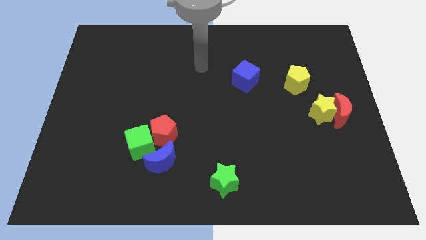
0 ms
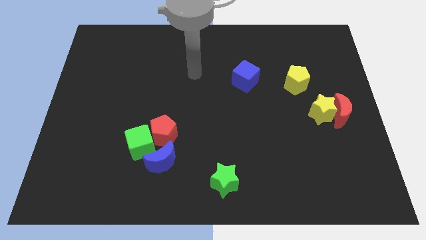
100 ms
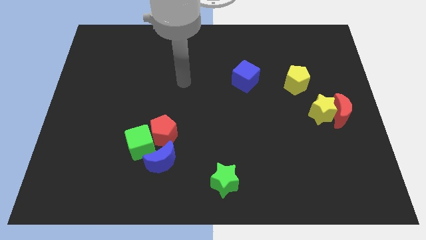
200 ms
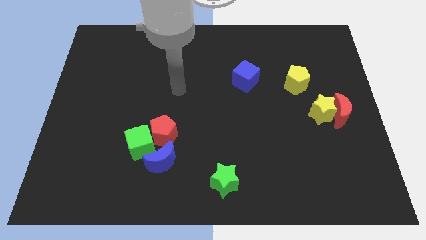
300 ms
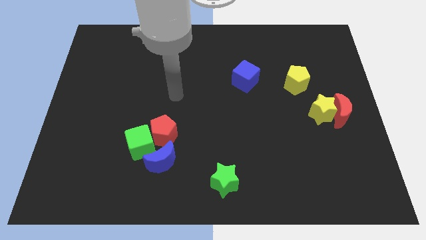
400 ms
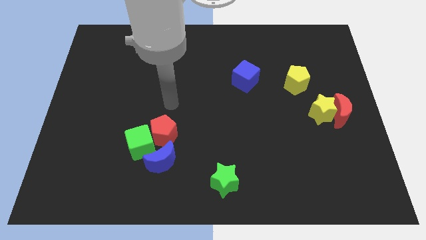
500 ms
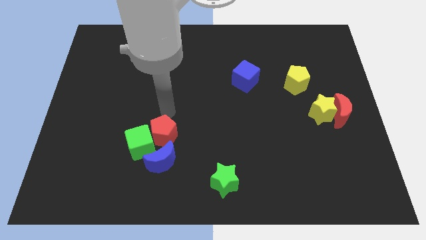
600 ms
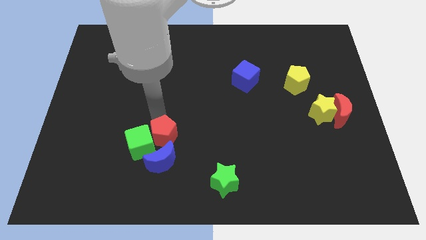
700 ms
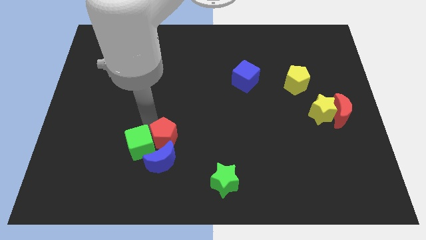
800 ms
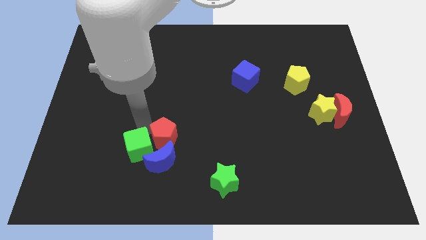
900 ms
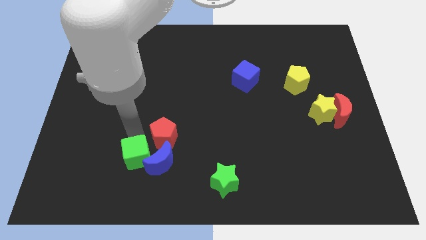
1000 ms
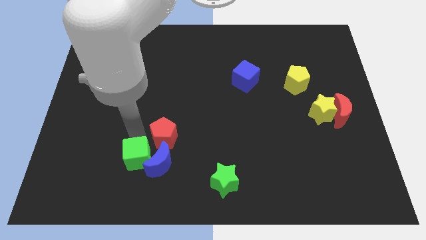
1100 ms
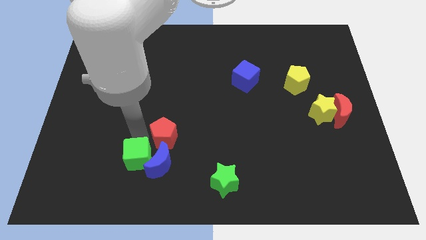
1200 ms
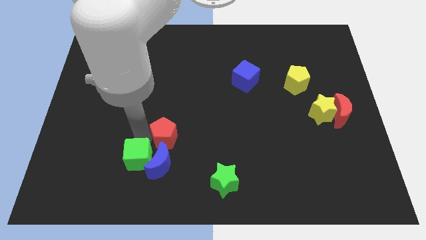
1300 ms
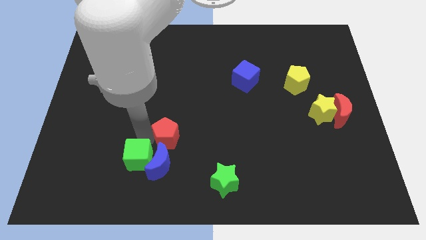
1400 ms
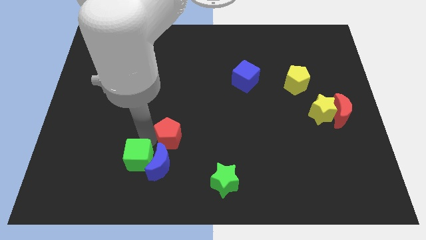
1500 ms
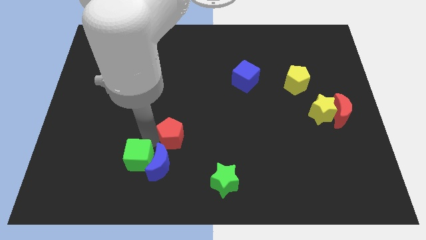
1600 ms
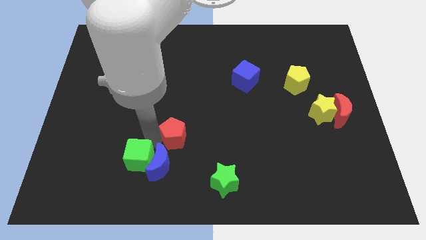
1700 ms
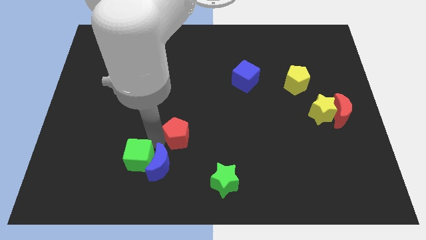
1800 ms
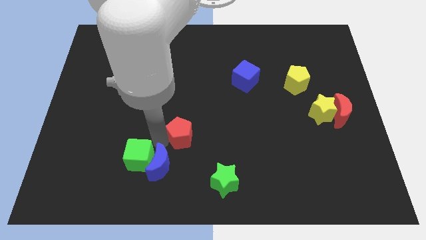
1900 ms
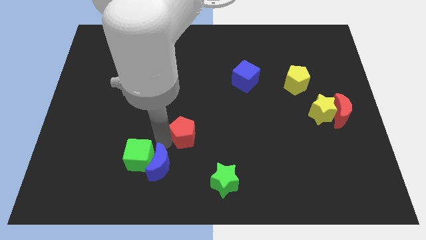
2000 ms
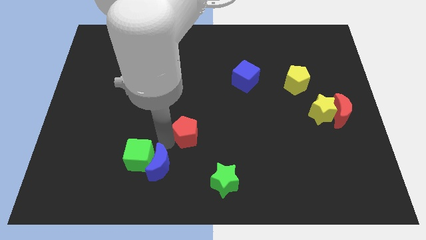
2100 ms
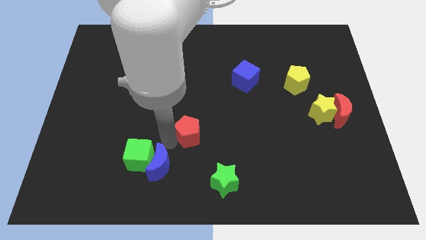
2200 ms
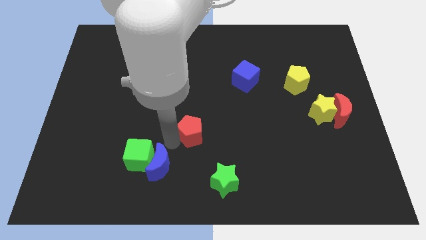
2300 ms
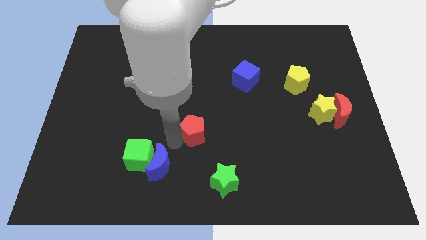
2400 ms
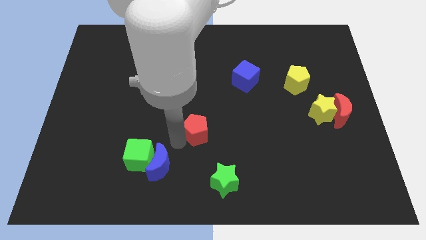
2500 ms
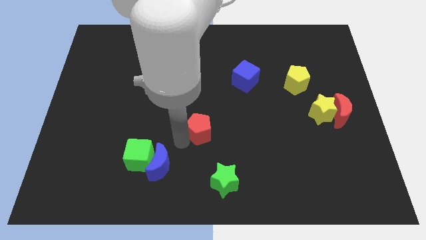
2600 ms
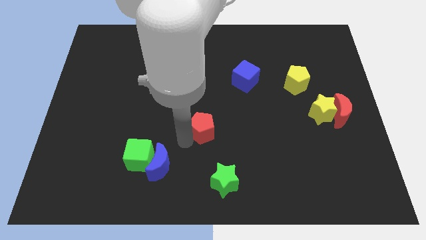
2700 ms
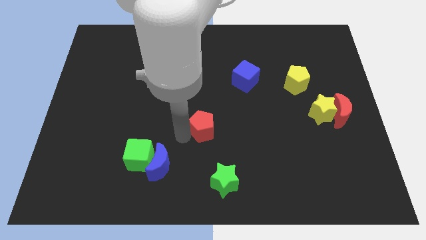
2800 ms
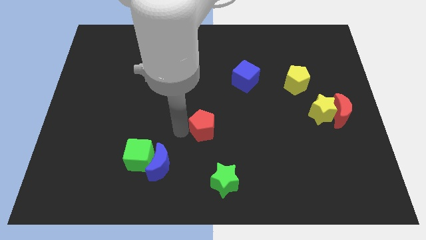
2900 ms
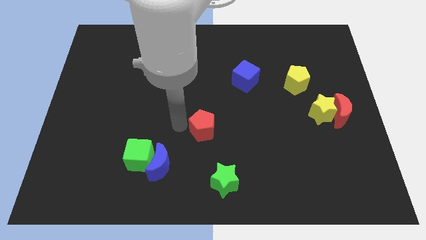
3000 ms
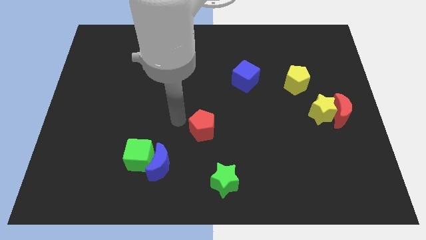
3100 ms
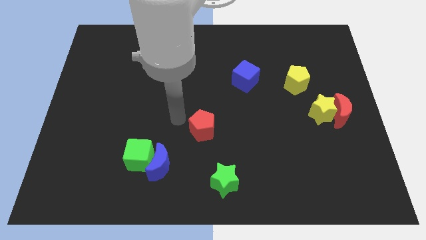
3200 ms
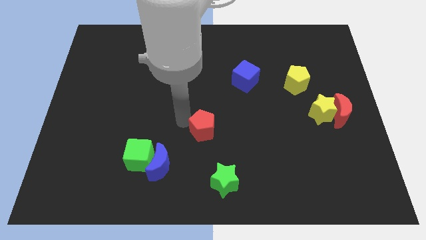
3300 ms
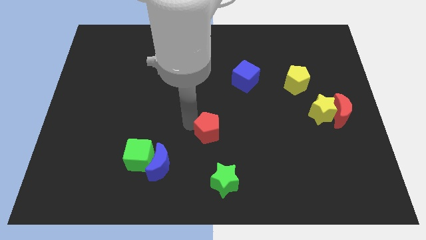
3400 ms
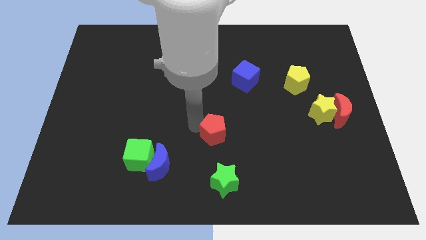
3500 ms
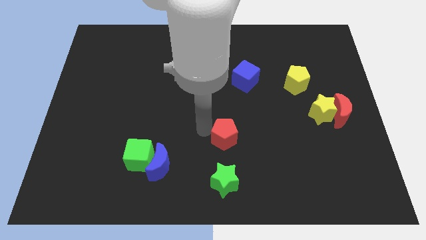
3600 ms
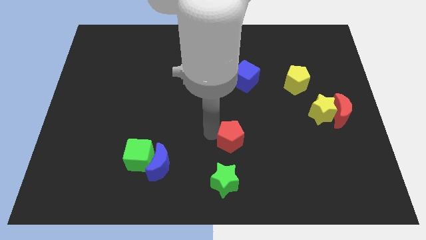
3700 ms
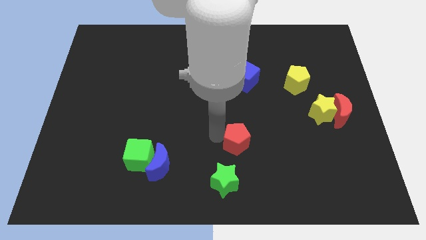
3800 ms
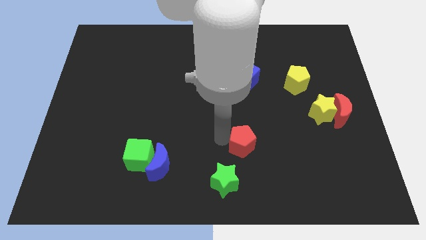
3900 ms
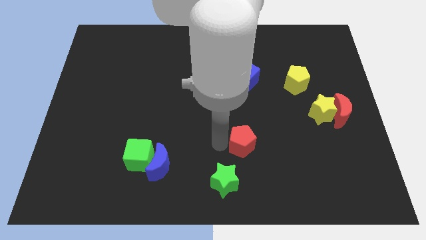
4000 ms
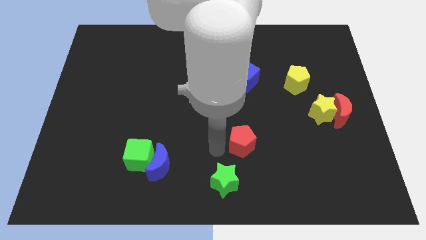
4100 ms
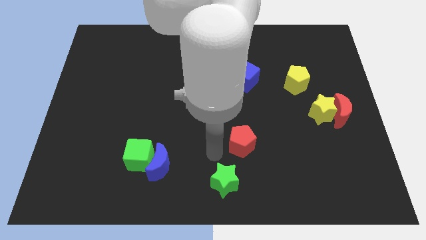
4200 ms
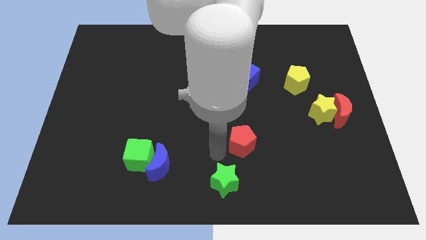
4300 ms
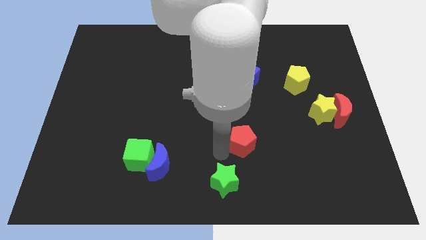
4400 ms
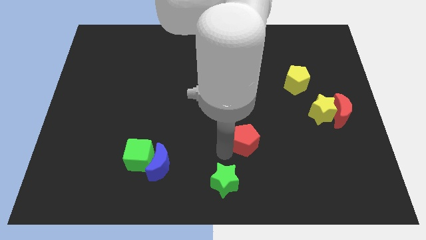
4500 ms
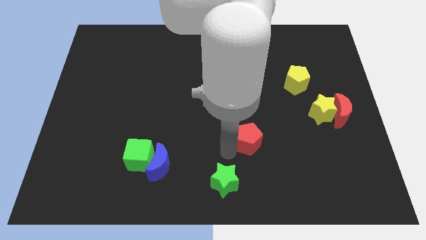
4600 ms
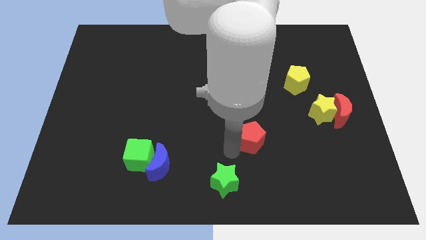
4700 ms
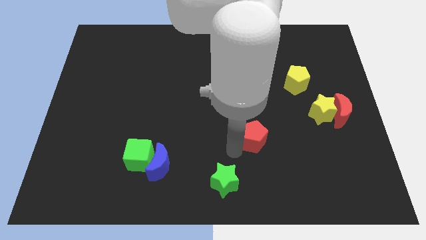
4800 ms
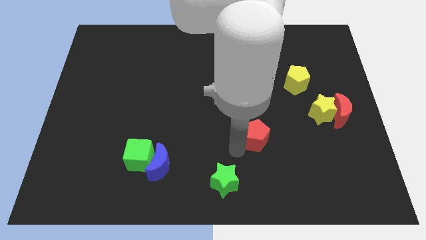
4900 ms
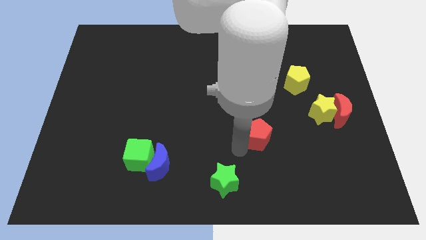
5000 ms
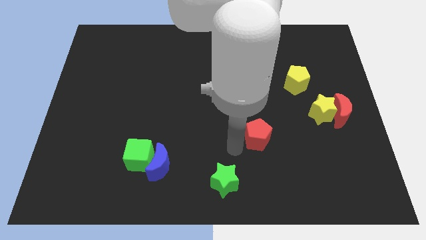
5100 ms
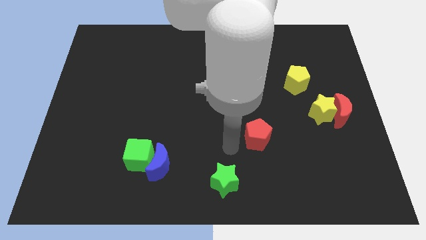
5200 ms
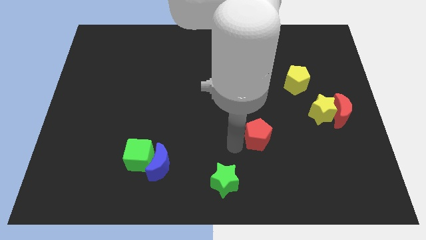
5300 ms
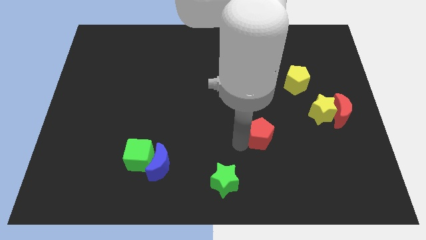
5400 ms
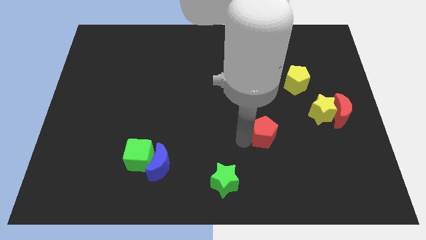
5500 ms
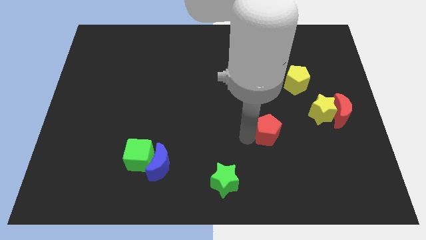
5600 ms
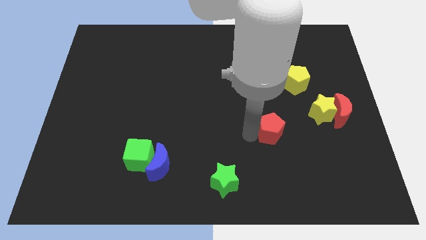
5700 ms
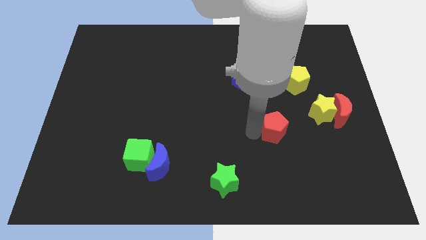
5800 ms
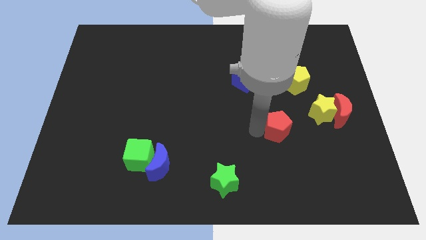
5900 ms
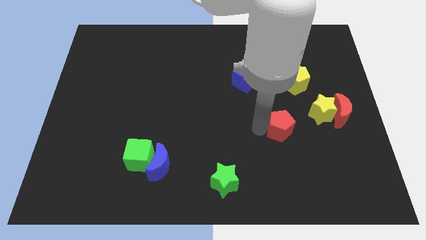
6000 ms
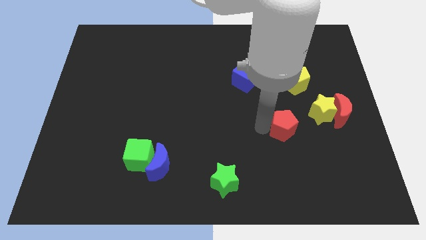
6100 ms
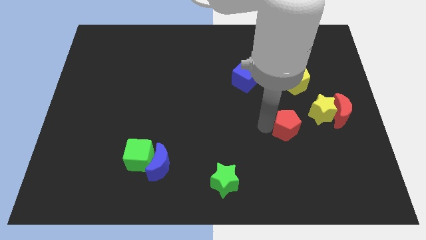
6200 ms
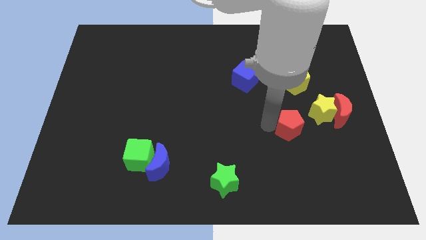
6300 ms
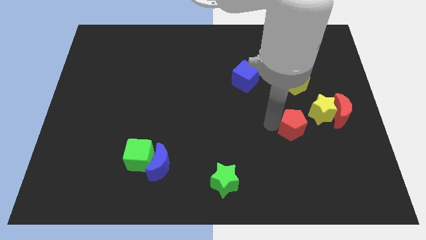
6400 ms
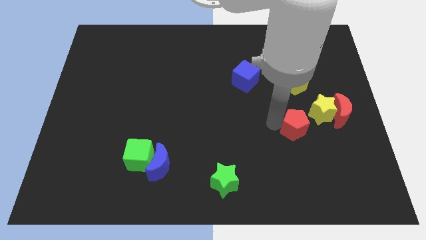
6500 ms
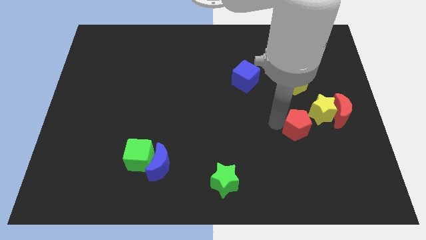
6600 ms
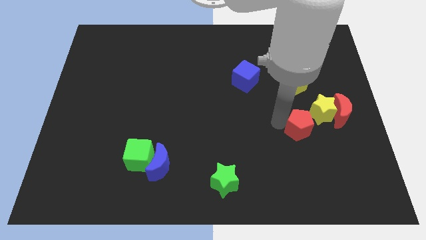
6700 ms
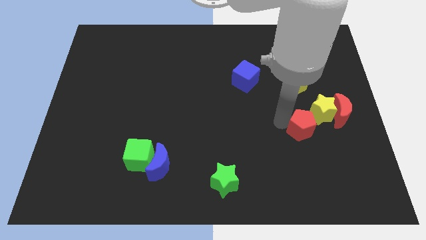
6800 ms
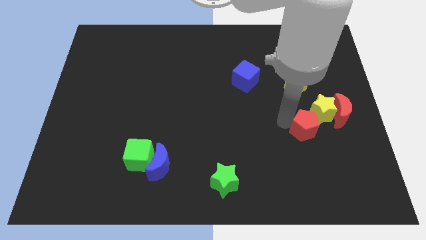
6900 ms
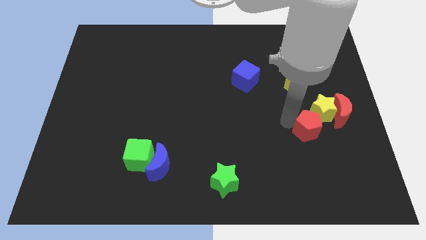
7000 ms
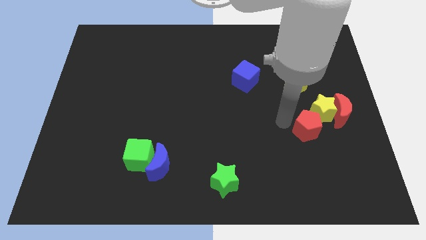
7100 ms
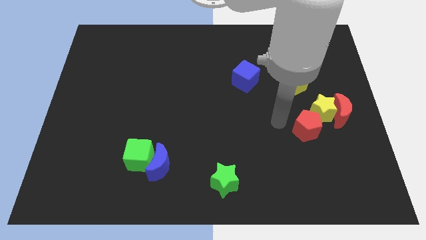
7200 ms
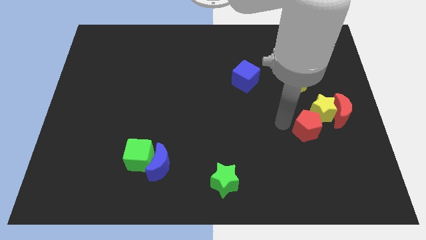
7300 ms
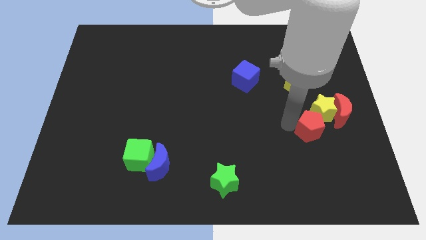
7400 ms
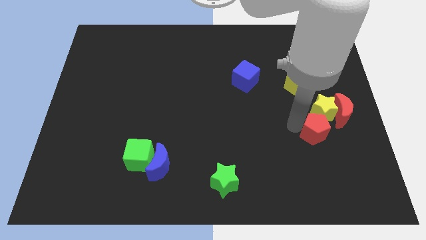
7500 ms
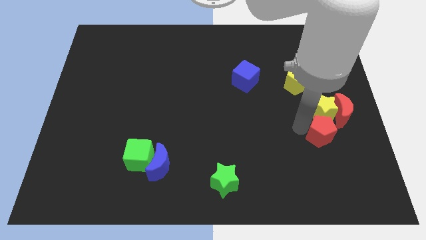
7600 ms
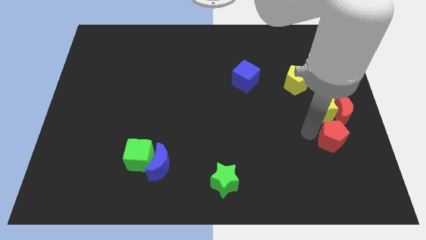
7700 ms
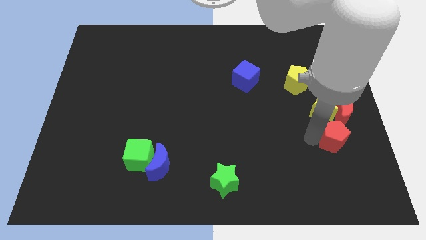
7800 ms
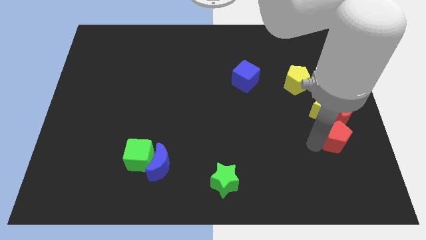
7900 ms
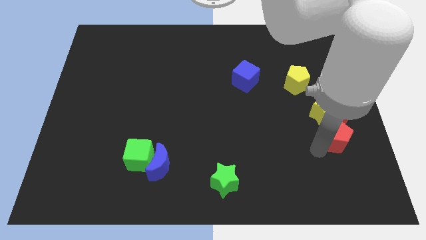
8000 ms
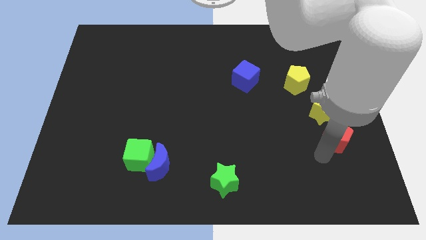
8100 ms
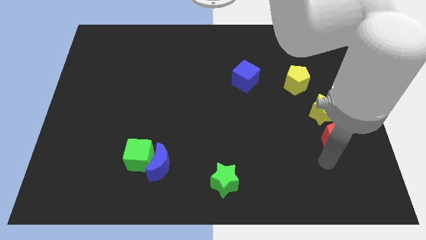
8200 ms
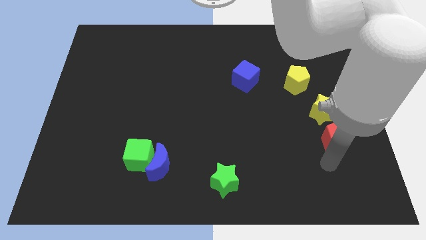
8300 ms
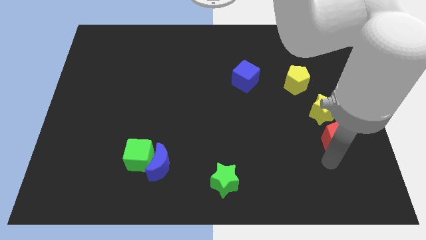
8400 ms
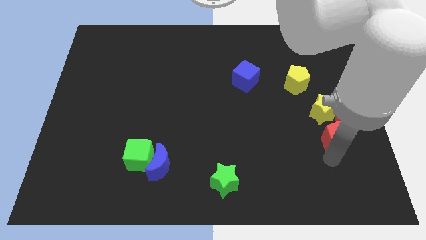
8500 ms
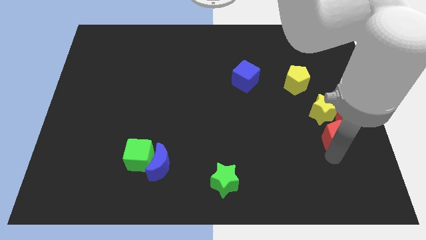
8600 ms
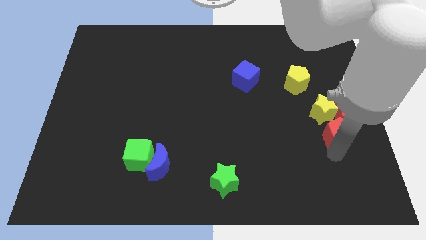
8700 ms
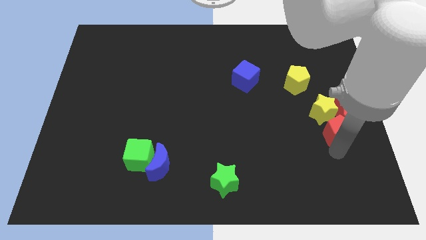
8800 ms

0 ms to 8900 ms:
put the red pentagon towards the red moon
